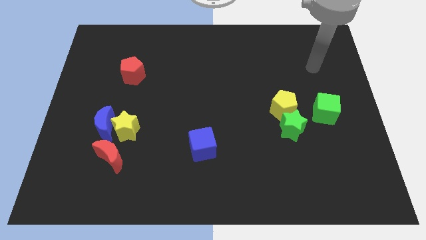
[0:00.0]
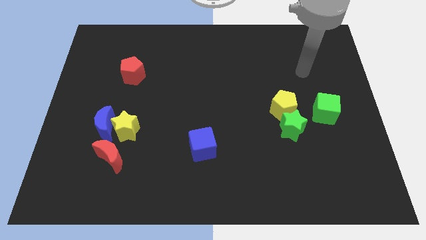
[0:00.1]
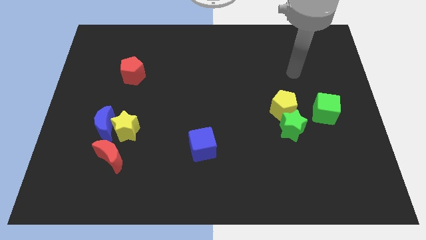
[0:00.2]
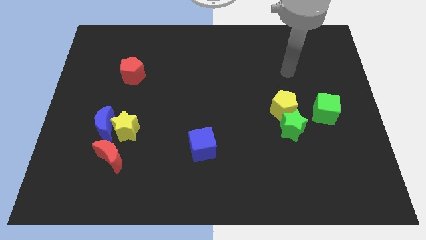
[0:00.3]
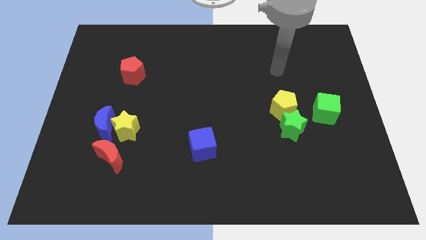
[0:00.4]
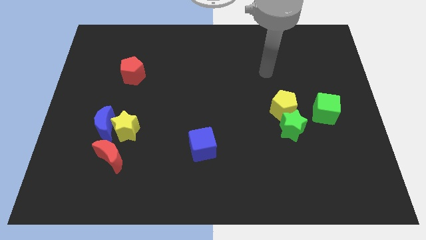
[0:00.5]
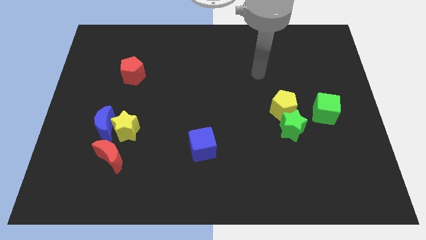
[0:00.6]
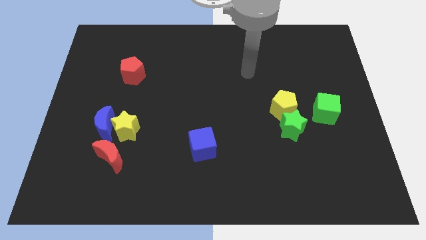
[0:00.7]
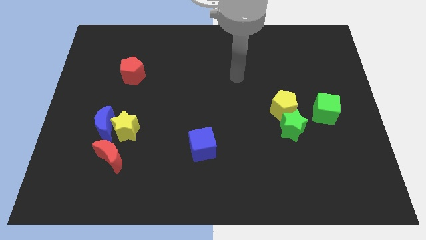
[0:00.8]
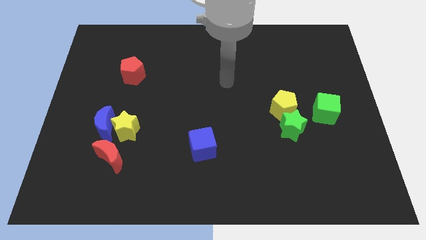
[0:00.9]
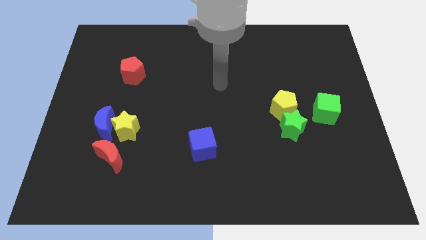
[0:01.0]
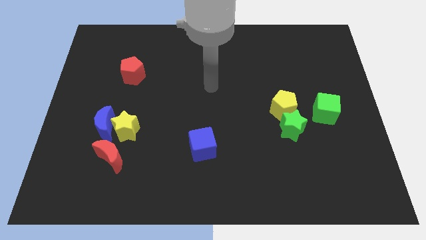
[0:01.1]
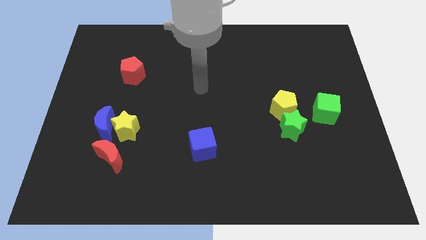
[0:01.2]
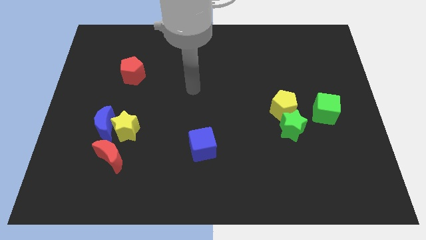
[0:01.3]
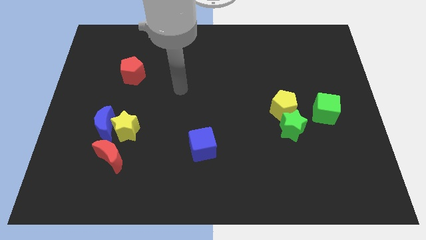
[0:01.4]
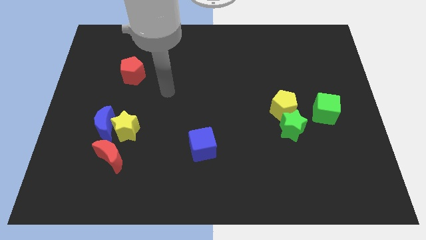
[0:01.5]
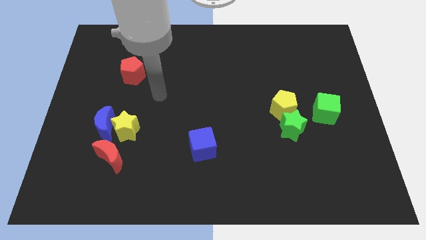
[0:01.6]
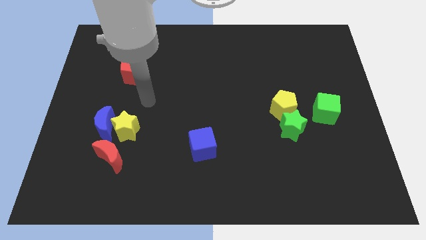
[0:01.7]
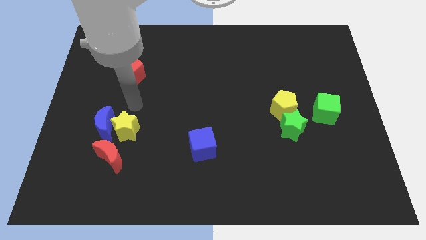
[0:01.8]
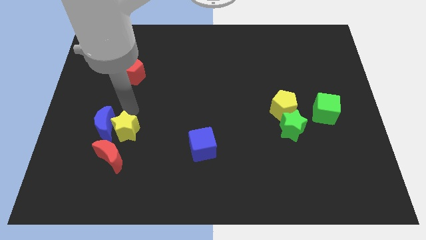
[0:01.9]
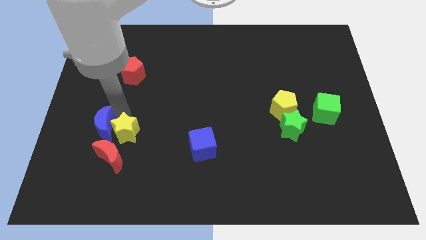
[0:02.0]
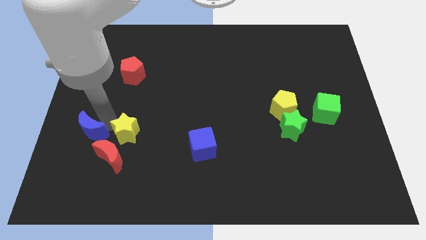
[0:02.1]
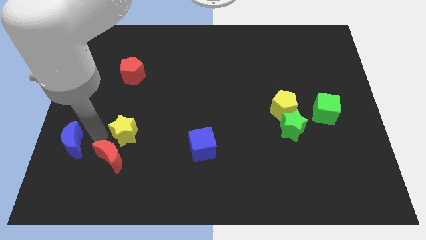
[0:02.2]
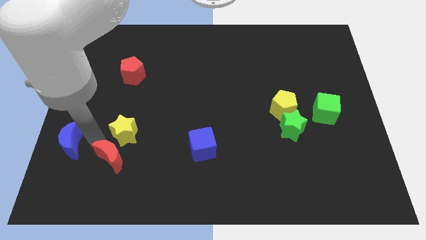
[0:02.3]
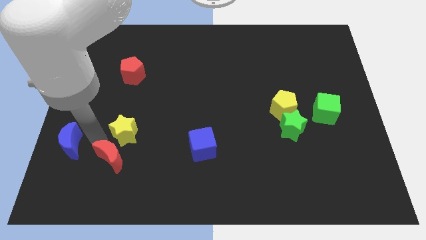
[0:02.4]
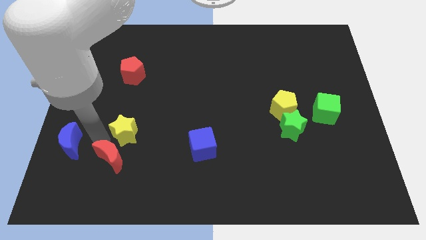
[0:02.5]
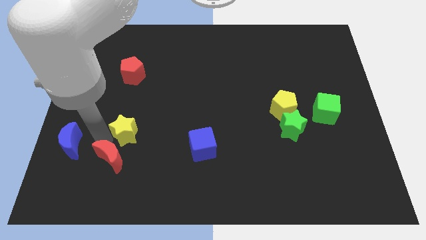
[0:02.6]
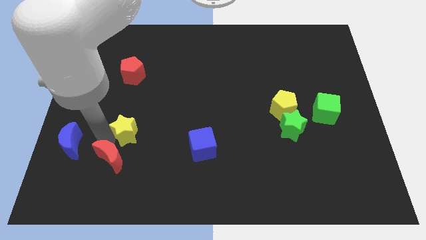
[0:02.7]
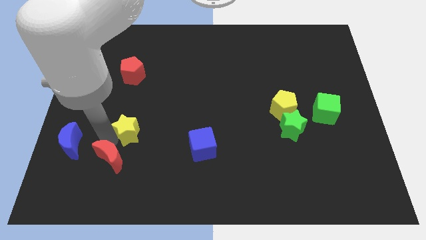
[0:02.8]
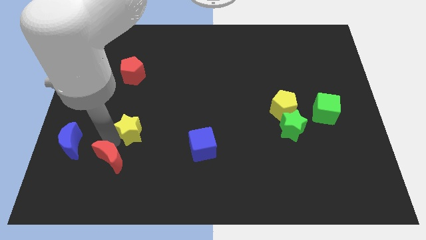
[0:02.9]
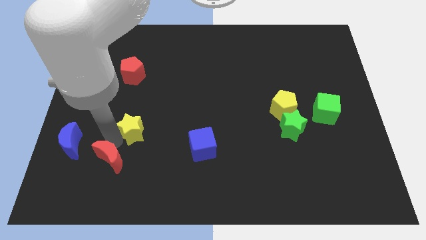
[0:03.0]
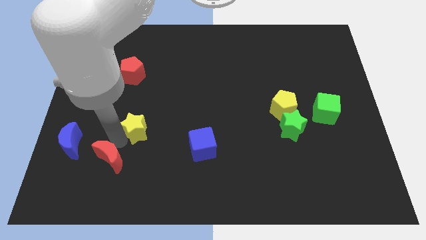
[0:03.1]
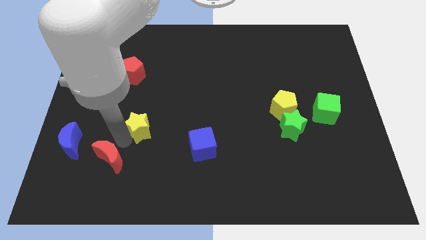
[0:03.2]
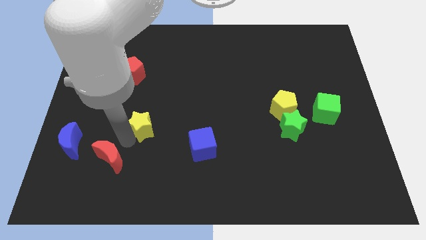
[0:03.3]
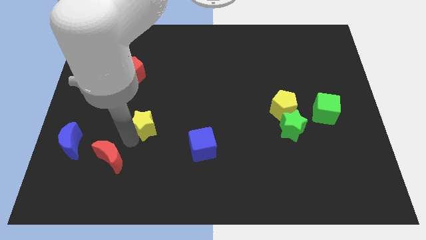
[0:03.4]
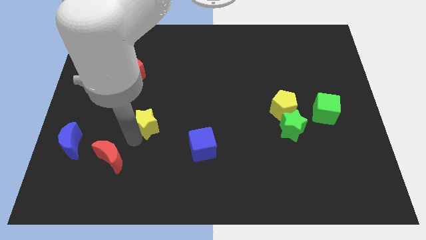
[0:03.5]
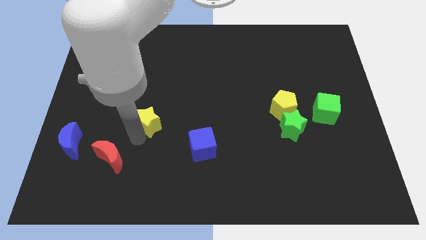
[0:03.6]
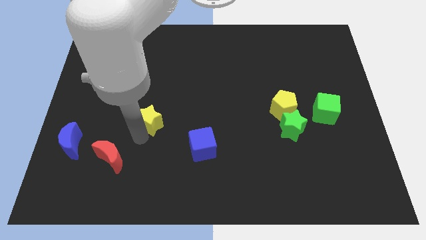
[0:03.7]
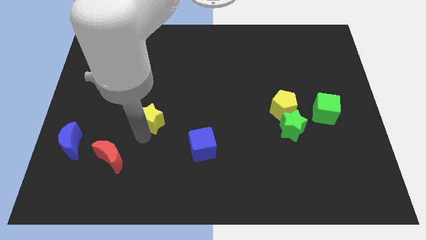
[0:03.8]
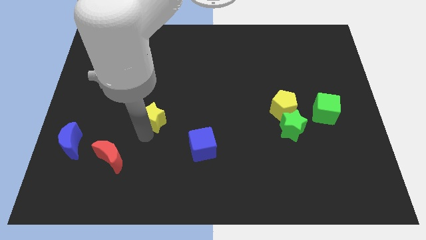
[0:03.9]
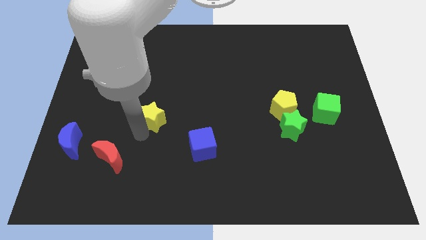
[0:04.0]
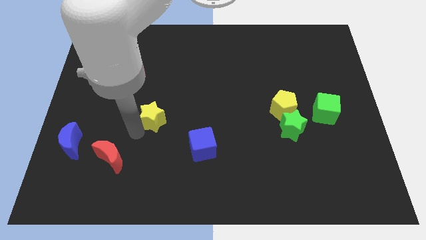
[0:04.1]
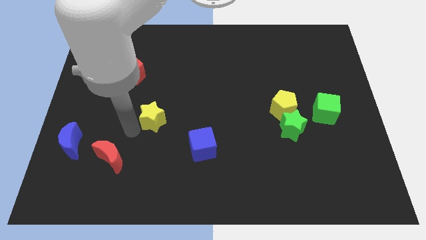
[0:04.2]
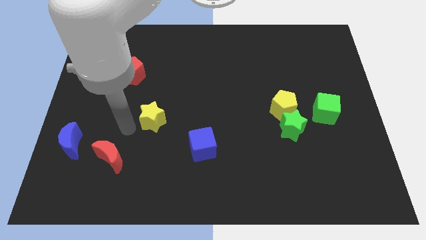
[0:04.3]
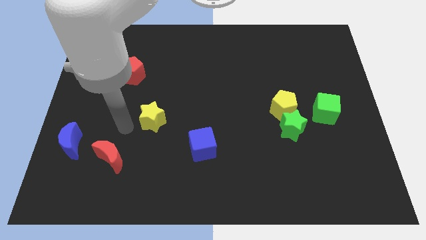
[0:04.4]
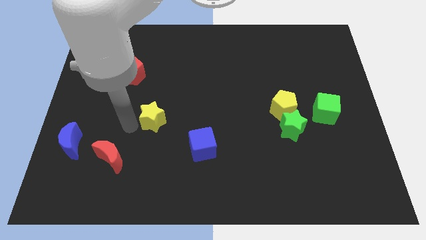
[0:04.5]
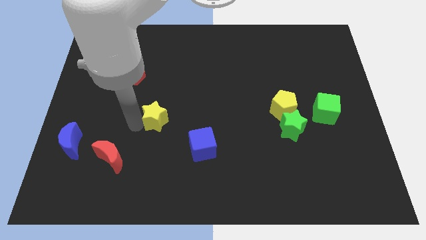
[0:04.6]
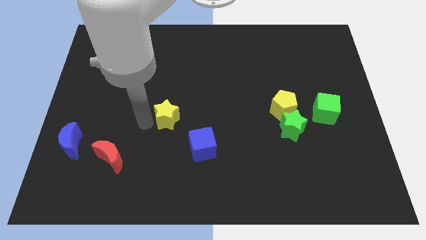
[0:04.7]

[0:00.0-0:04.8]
put the yellow star to the middle

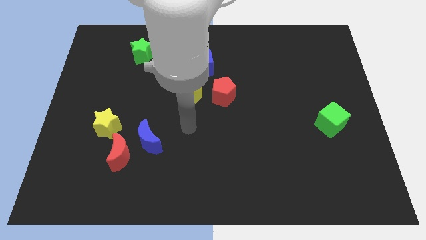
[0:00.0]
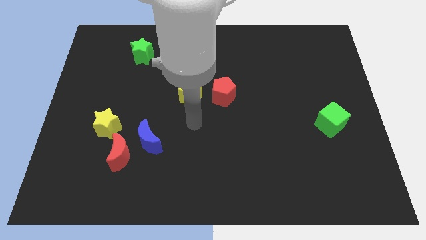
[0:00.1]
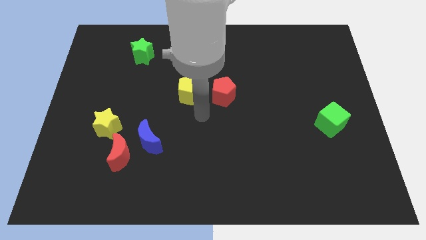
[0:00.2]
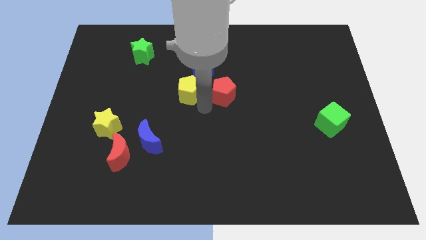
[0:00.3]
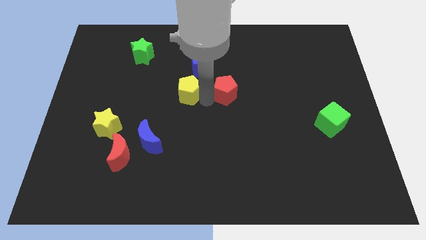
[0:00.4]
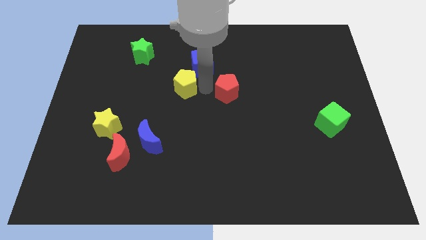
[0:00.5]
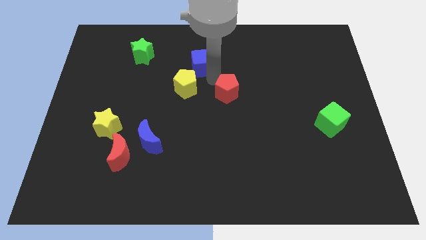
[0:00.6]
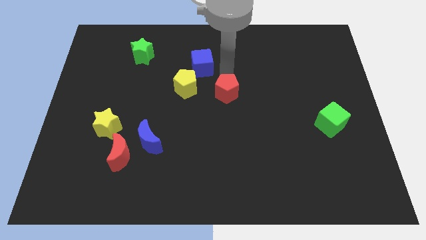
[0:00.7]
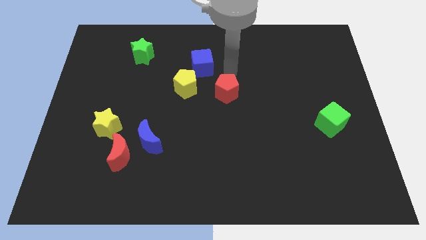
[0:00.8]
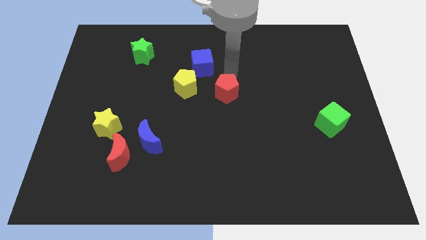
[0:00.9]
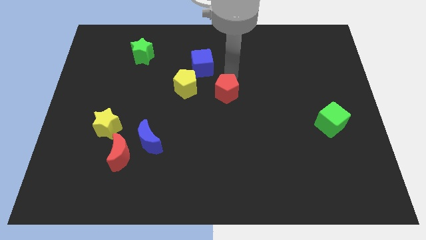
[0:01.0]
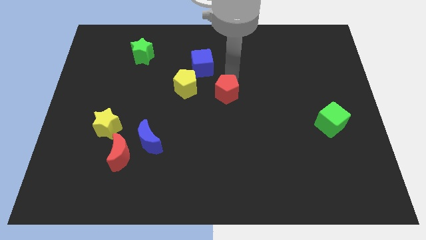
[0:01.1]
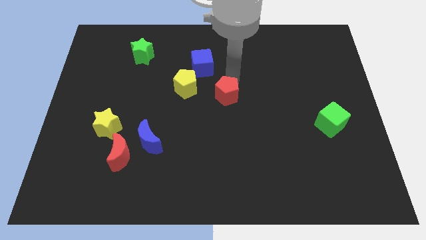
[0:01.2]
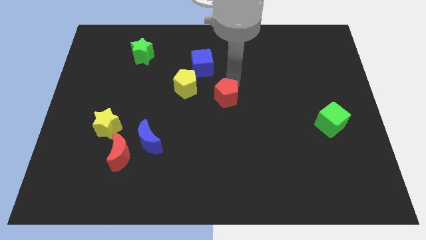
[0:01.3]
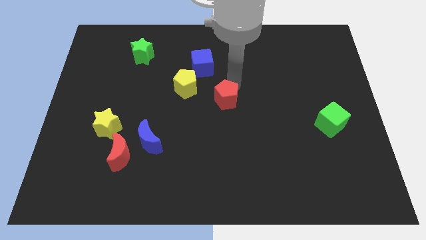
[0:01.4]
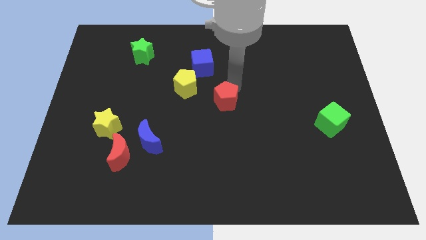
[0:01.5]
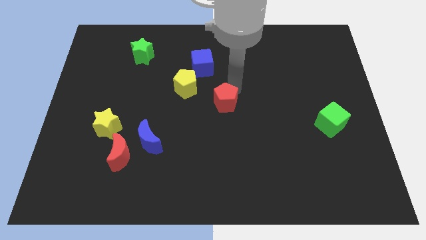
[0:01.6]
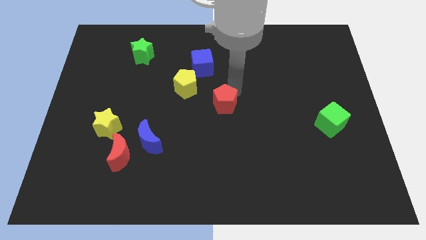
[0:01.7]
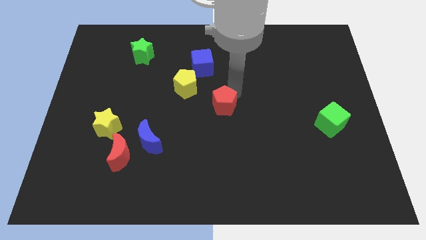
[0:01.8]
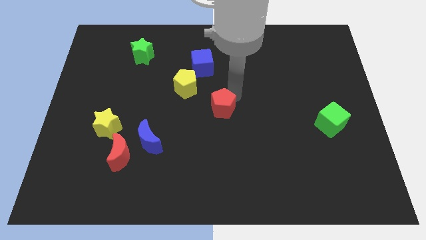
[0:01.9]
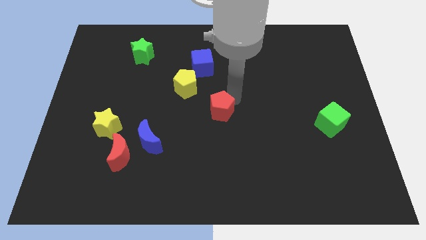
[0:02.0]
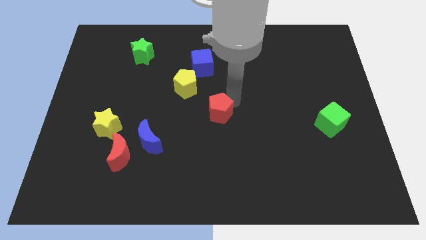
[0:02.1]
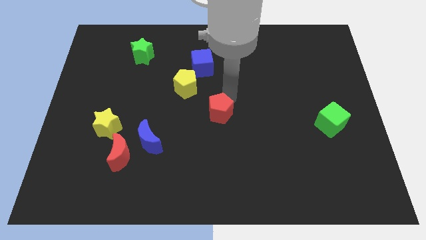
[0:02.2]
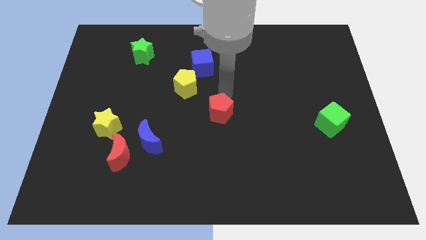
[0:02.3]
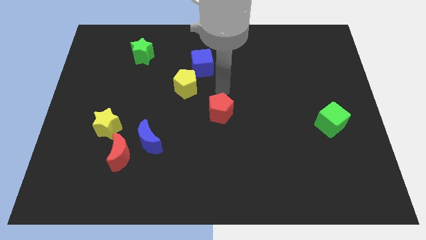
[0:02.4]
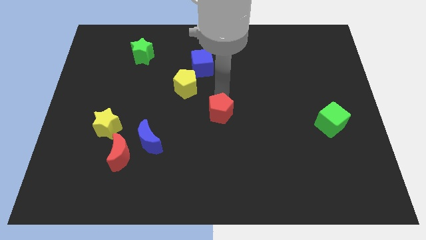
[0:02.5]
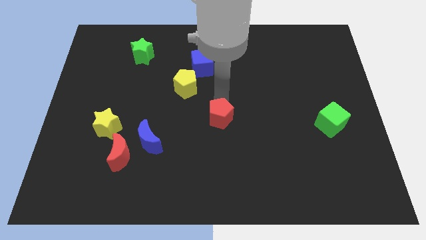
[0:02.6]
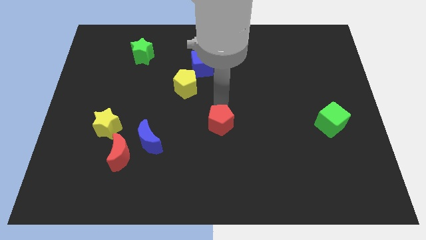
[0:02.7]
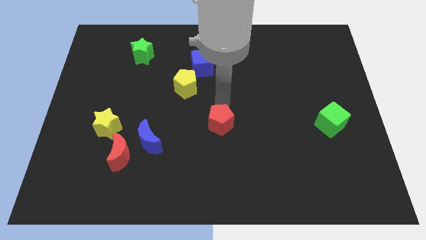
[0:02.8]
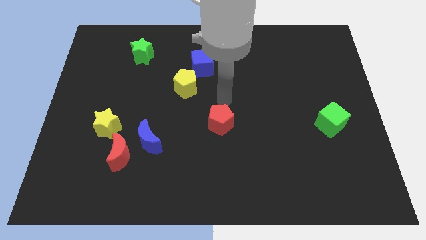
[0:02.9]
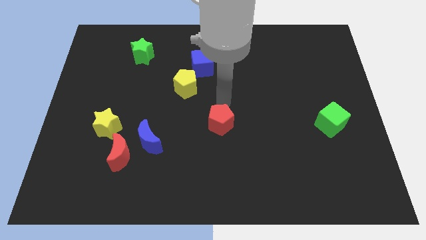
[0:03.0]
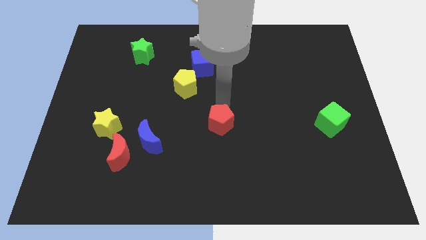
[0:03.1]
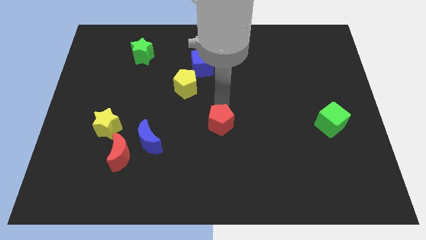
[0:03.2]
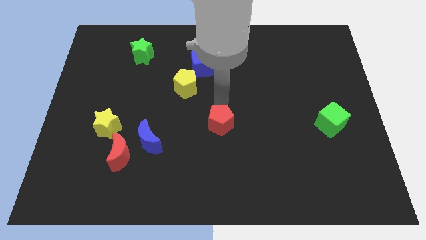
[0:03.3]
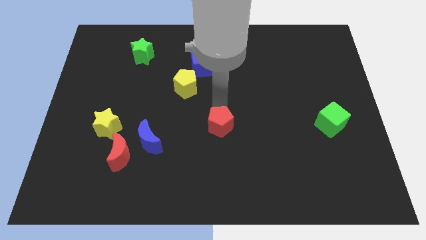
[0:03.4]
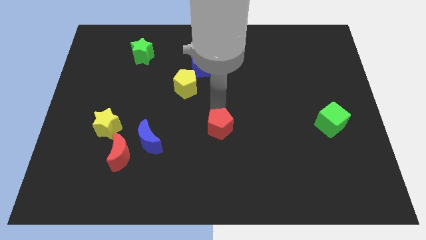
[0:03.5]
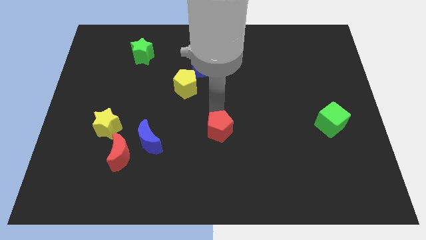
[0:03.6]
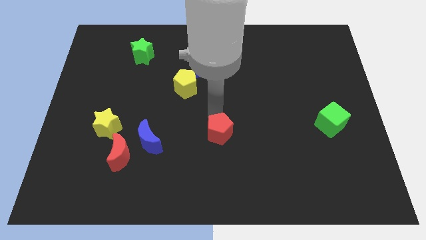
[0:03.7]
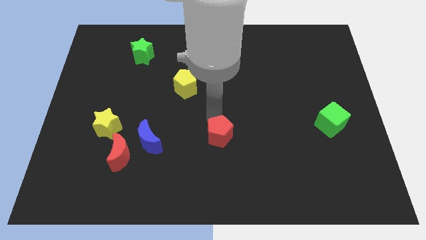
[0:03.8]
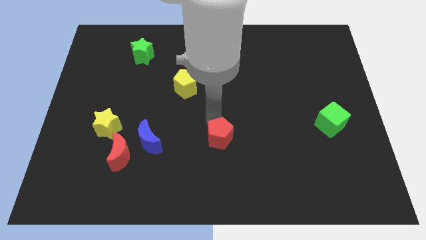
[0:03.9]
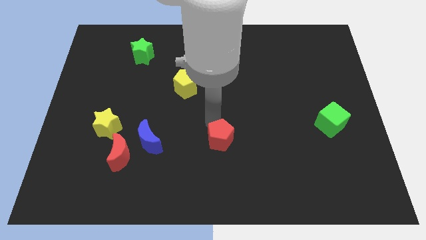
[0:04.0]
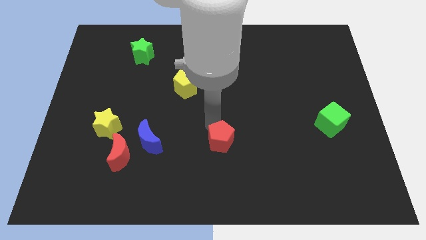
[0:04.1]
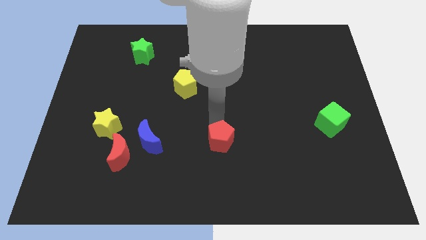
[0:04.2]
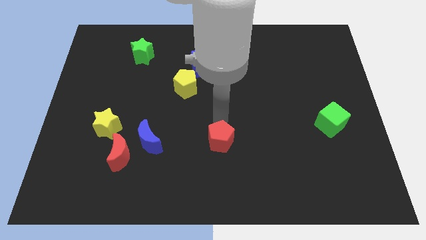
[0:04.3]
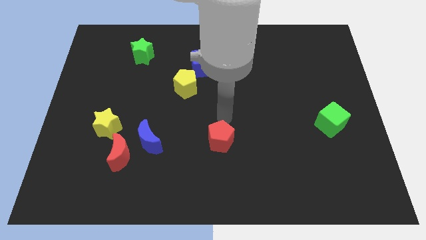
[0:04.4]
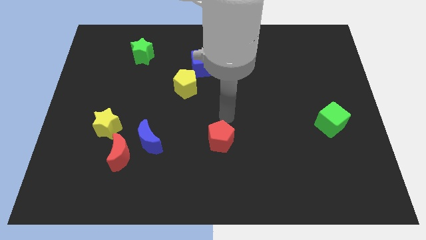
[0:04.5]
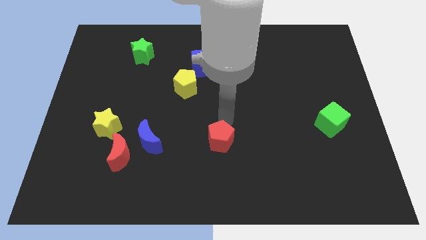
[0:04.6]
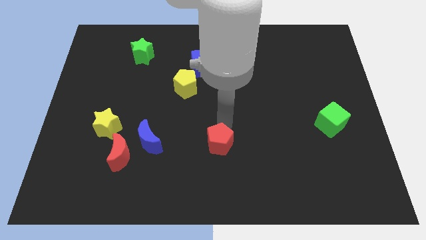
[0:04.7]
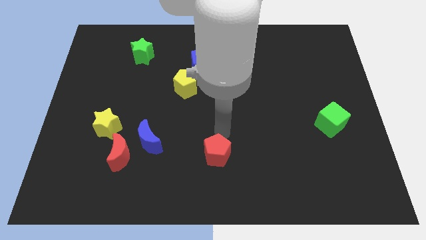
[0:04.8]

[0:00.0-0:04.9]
put the red pentagon to the bottom
